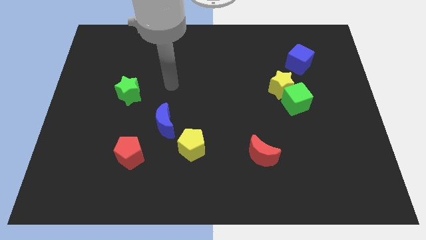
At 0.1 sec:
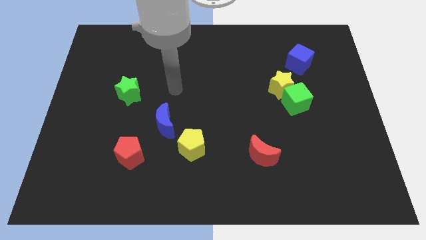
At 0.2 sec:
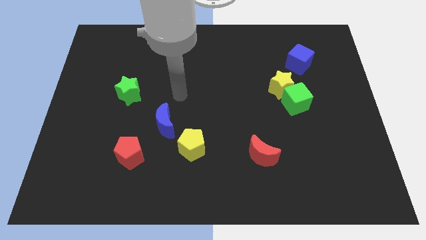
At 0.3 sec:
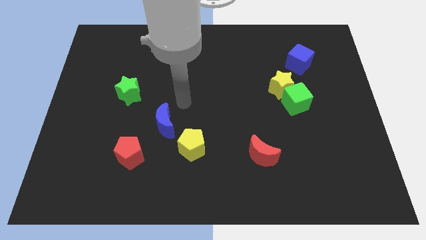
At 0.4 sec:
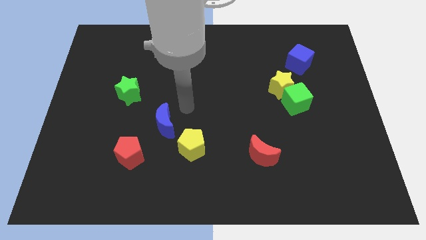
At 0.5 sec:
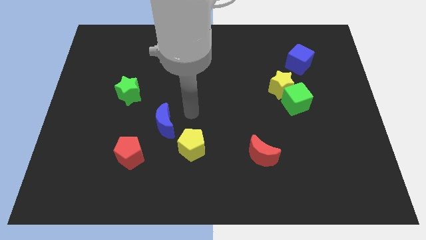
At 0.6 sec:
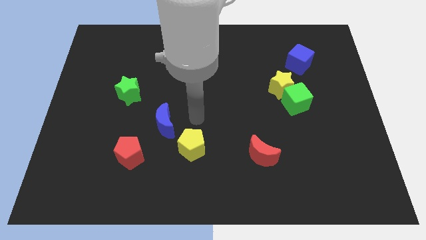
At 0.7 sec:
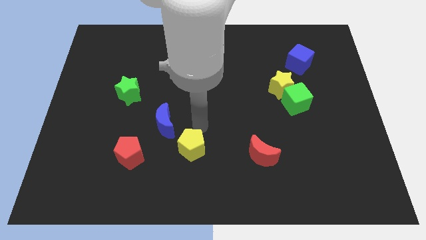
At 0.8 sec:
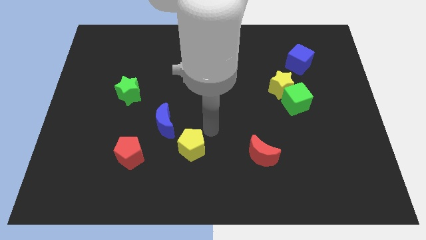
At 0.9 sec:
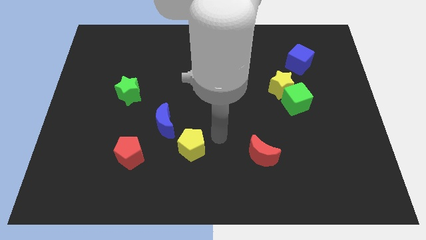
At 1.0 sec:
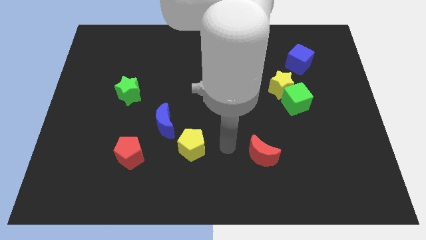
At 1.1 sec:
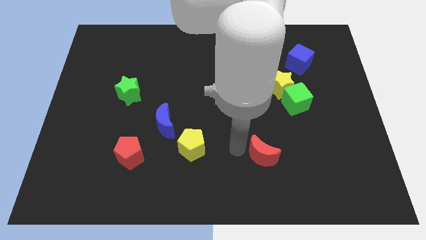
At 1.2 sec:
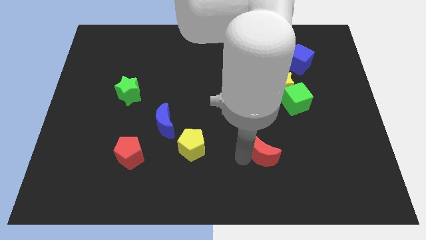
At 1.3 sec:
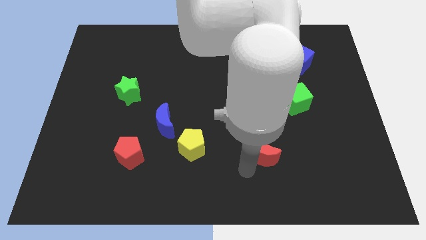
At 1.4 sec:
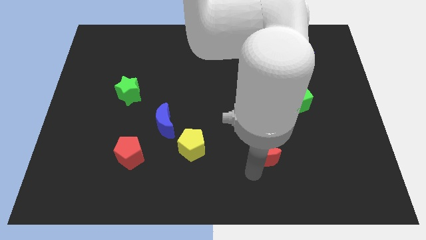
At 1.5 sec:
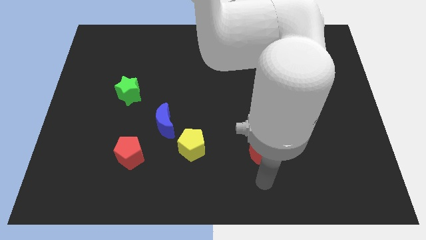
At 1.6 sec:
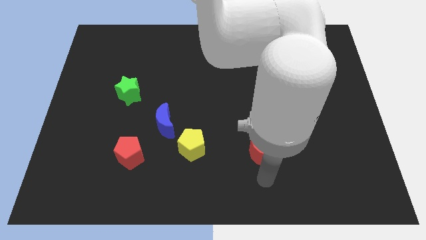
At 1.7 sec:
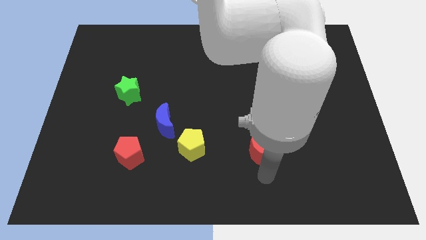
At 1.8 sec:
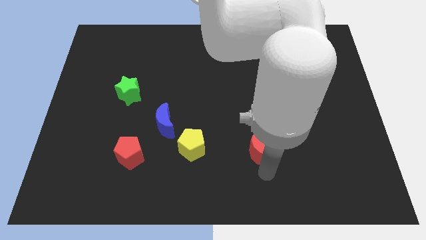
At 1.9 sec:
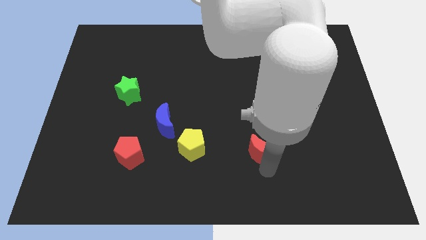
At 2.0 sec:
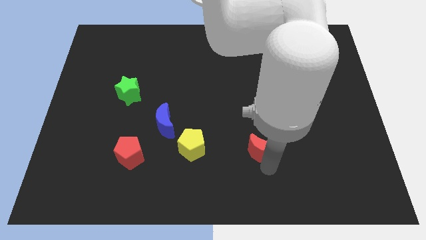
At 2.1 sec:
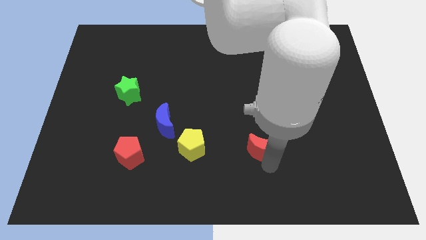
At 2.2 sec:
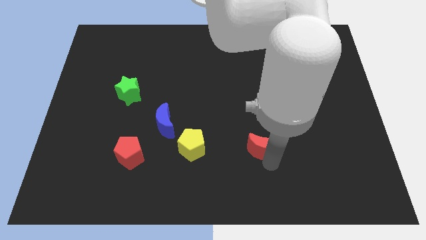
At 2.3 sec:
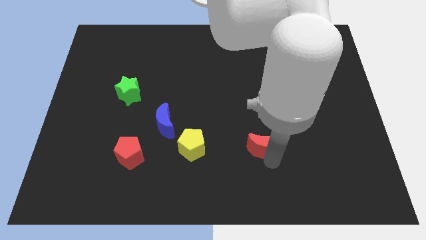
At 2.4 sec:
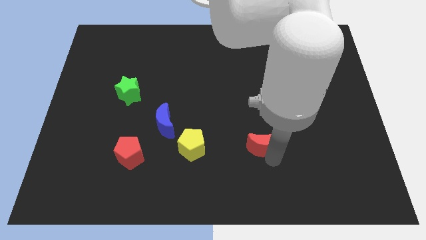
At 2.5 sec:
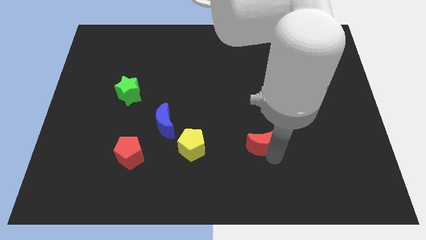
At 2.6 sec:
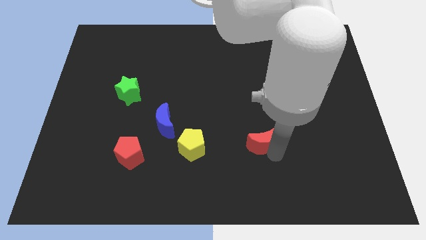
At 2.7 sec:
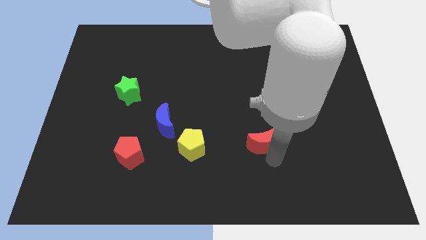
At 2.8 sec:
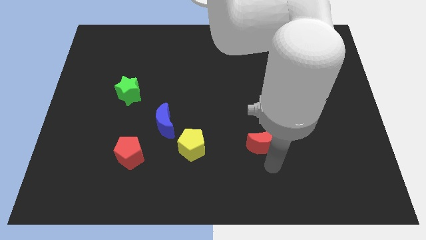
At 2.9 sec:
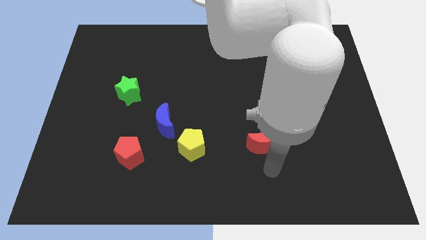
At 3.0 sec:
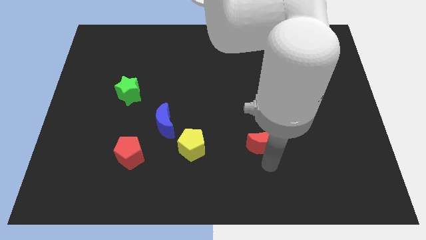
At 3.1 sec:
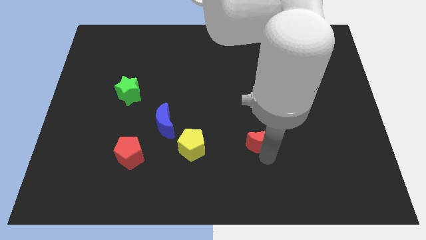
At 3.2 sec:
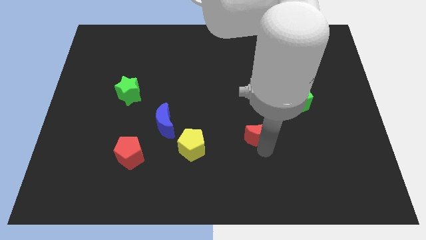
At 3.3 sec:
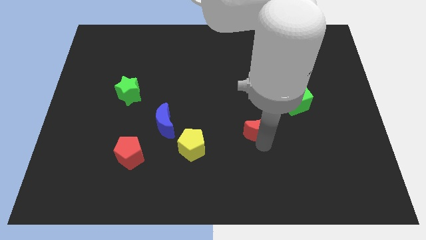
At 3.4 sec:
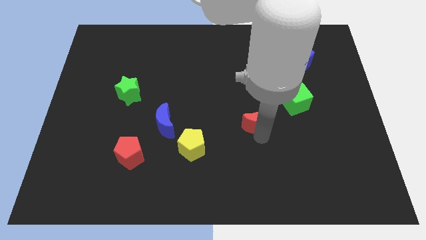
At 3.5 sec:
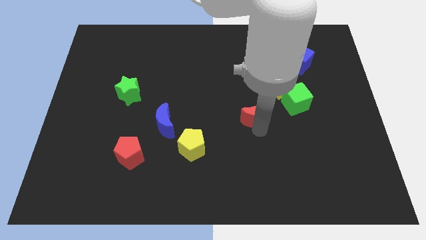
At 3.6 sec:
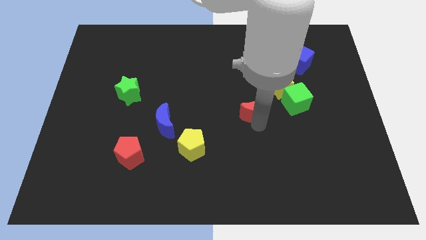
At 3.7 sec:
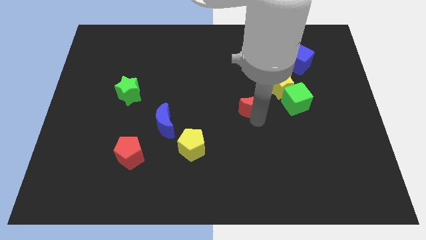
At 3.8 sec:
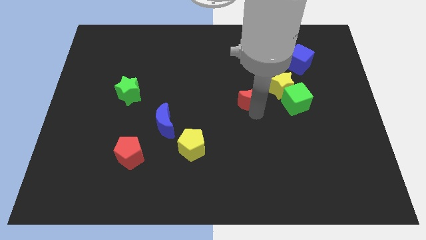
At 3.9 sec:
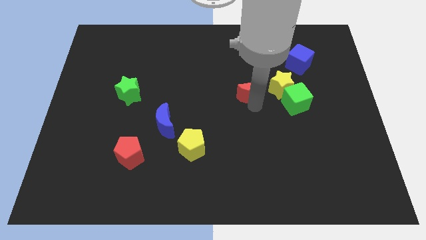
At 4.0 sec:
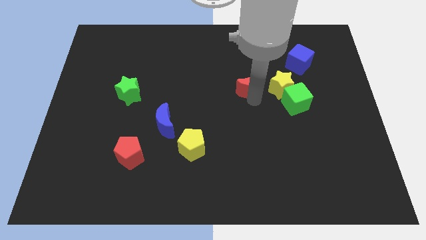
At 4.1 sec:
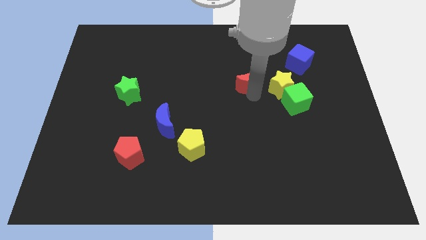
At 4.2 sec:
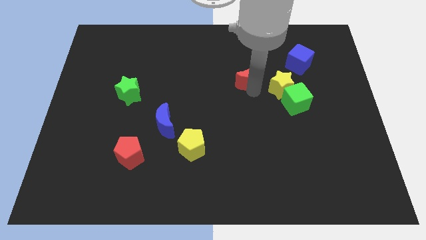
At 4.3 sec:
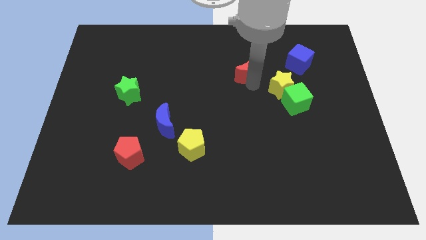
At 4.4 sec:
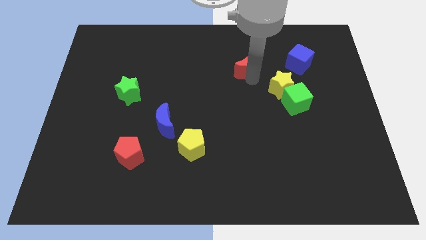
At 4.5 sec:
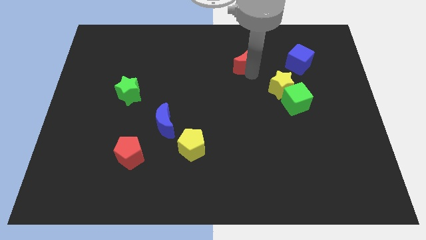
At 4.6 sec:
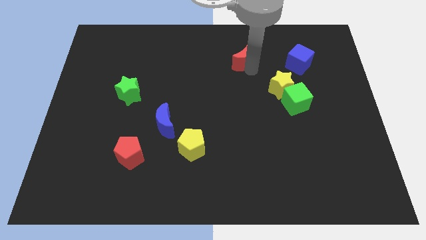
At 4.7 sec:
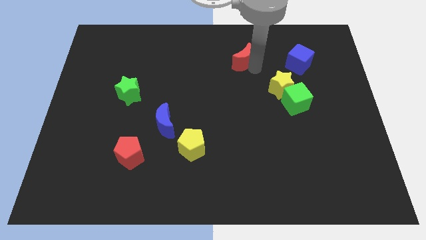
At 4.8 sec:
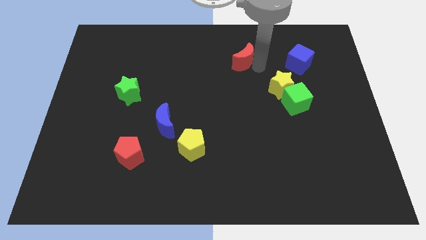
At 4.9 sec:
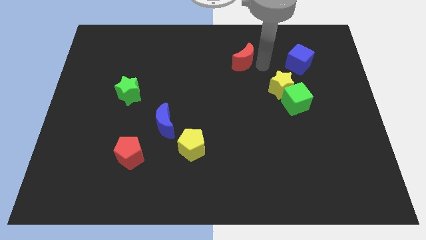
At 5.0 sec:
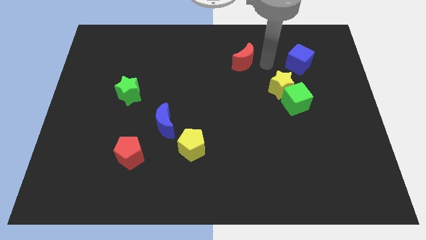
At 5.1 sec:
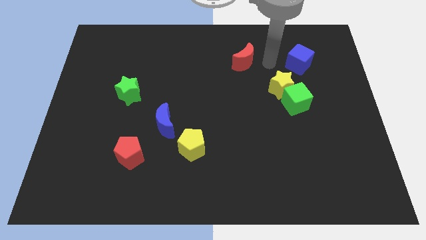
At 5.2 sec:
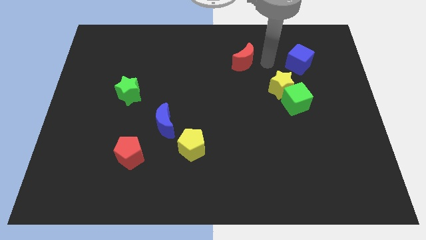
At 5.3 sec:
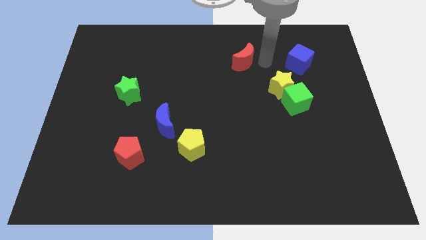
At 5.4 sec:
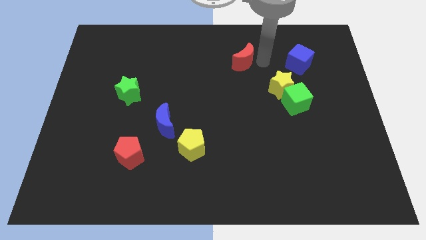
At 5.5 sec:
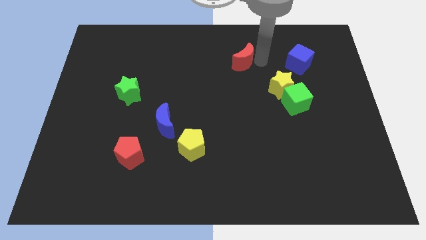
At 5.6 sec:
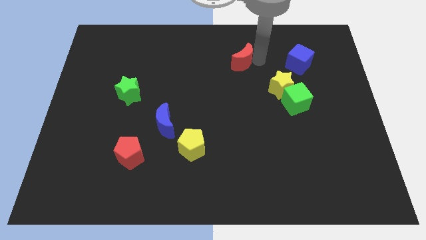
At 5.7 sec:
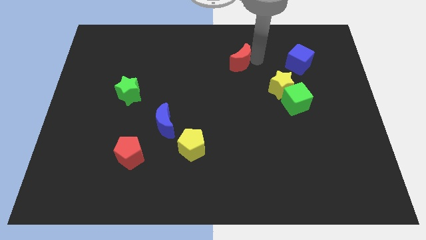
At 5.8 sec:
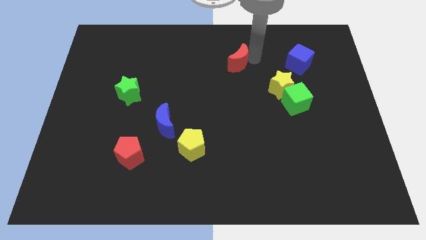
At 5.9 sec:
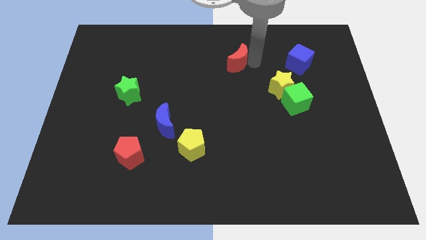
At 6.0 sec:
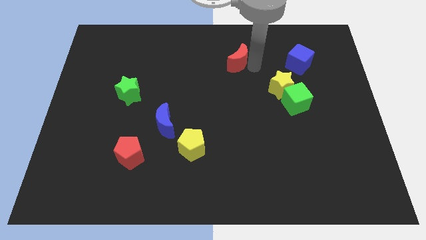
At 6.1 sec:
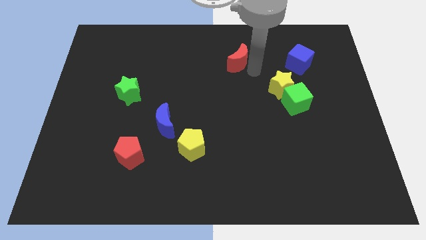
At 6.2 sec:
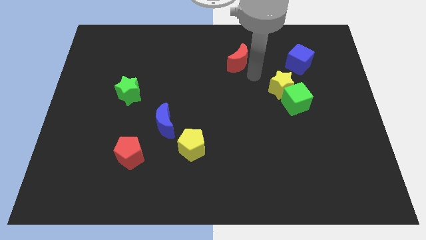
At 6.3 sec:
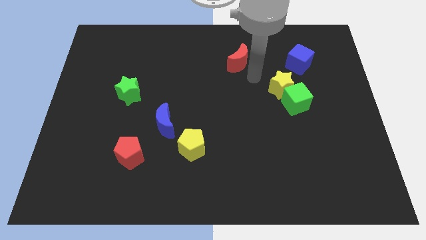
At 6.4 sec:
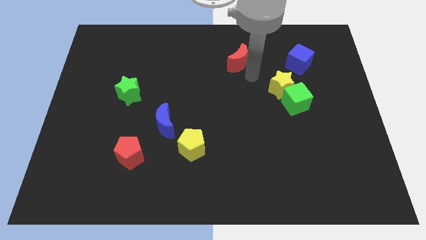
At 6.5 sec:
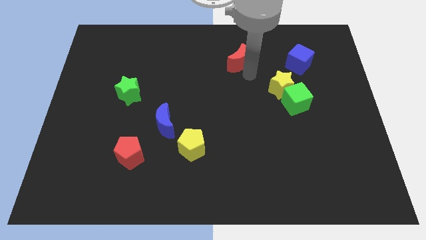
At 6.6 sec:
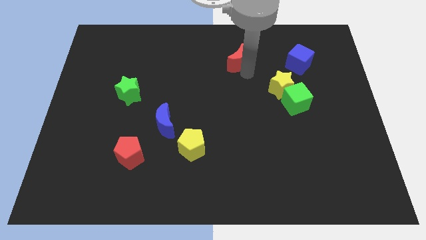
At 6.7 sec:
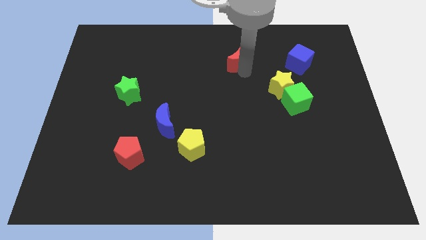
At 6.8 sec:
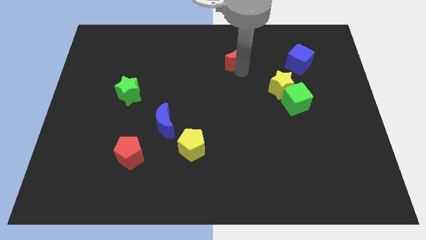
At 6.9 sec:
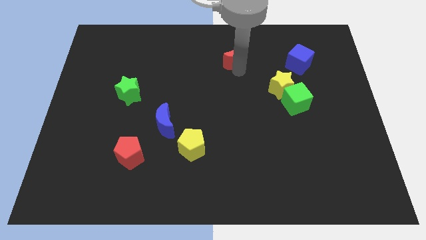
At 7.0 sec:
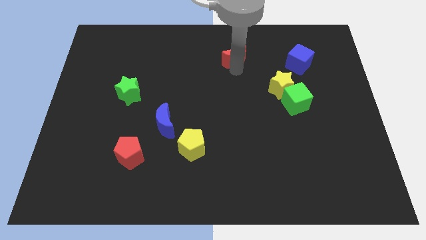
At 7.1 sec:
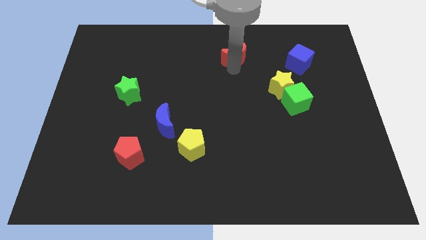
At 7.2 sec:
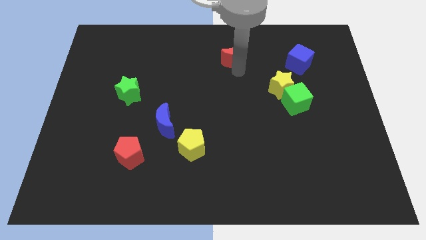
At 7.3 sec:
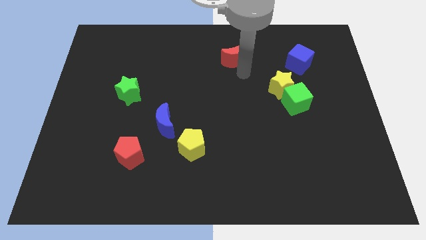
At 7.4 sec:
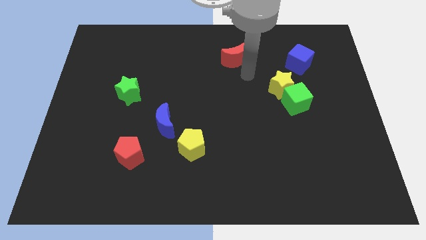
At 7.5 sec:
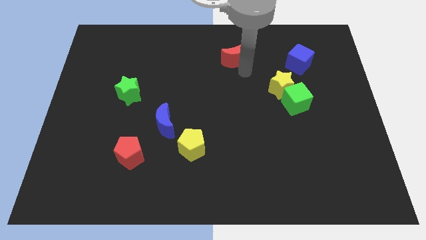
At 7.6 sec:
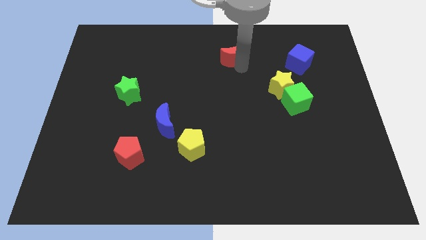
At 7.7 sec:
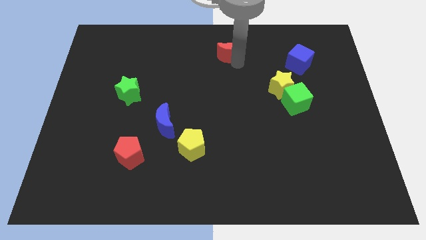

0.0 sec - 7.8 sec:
move the red moon to the top side
